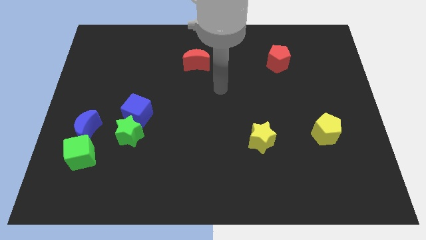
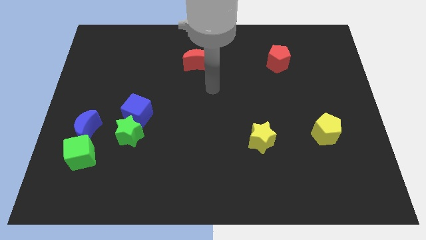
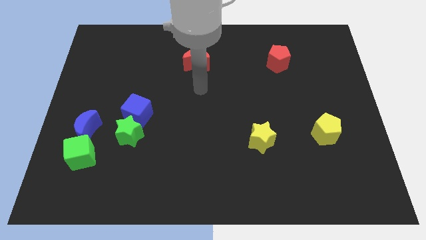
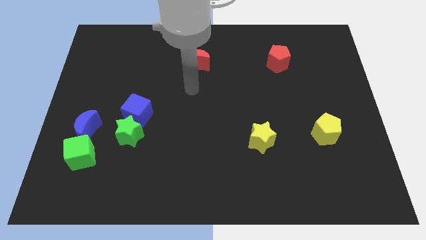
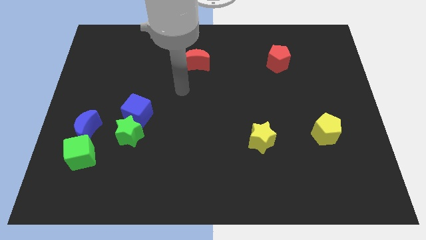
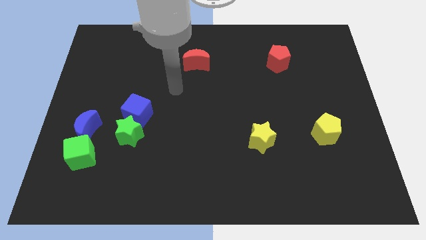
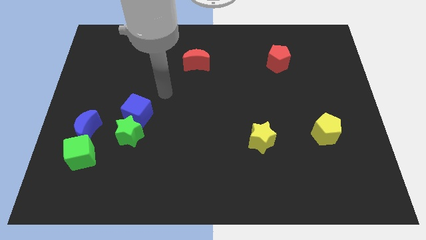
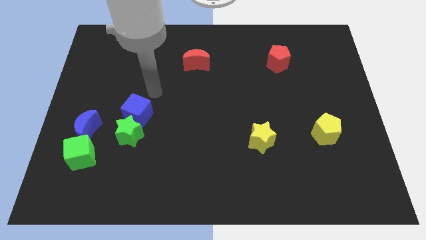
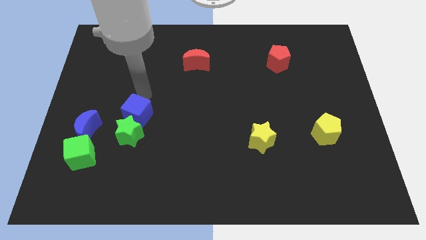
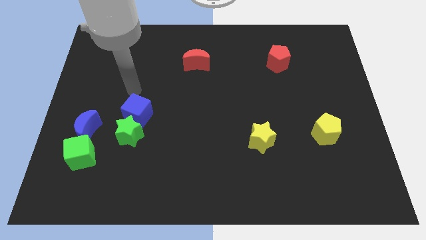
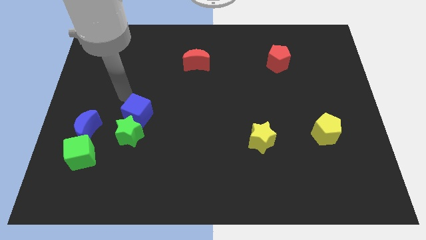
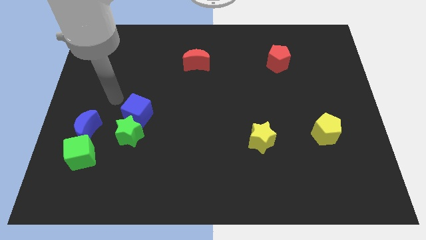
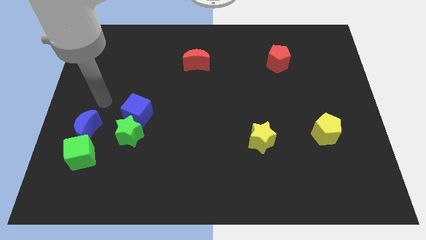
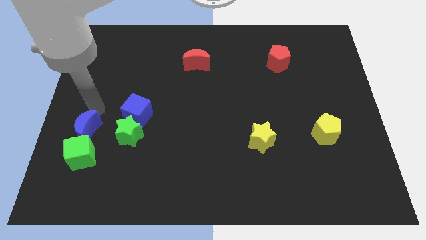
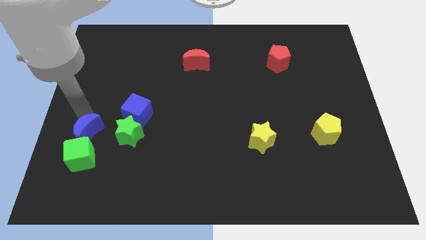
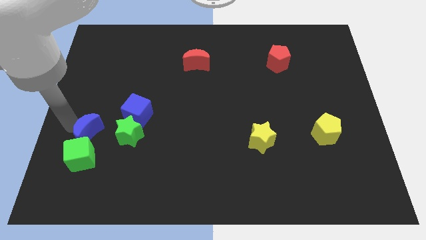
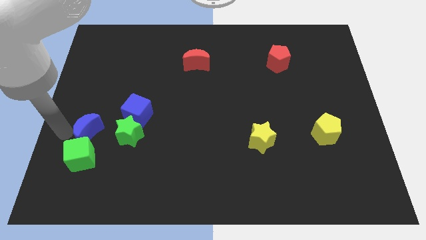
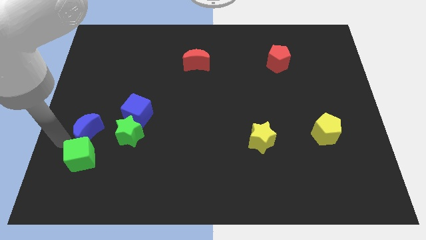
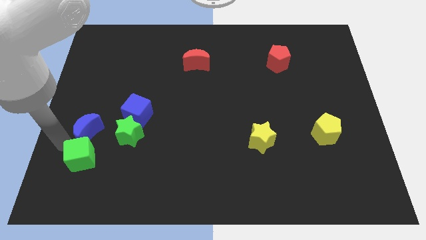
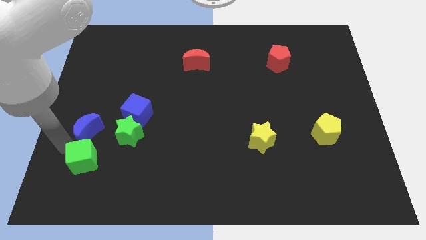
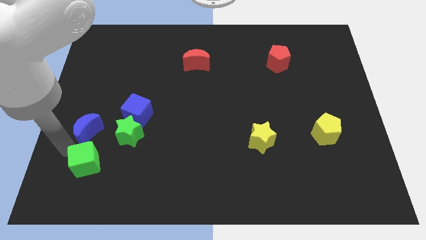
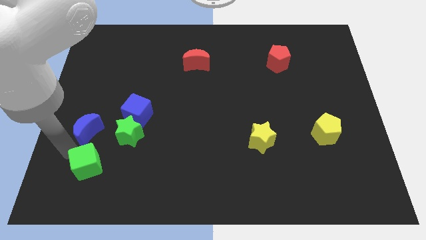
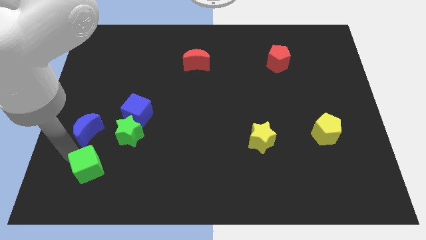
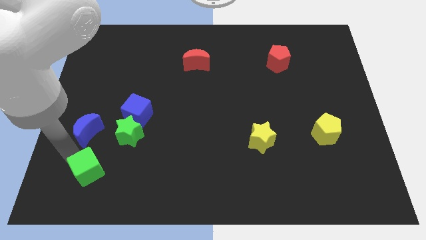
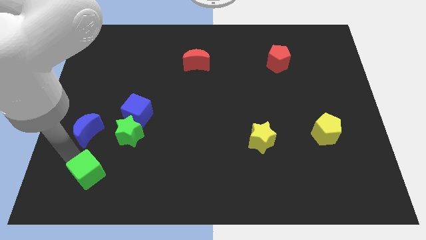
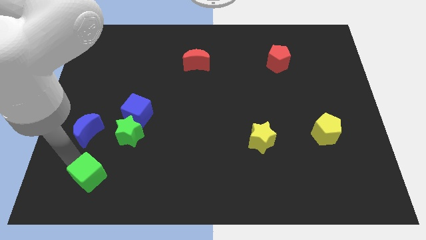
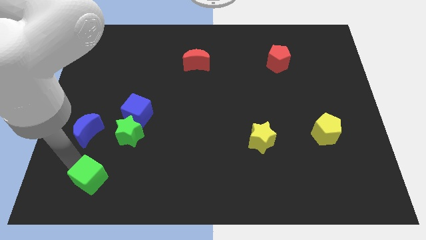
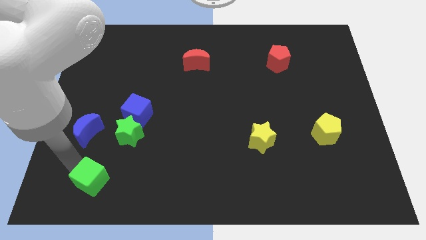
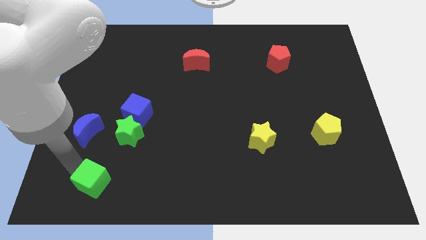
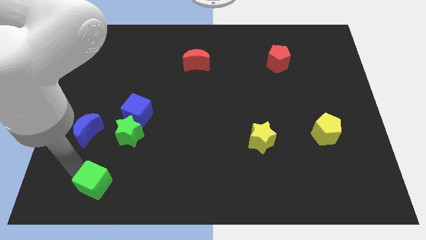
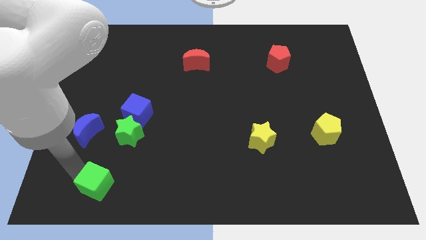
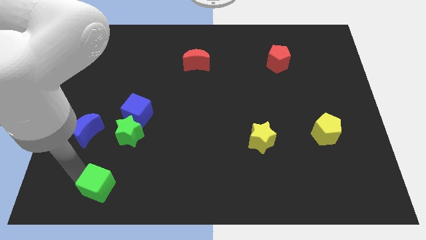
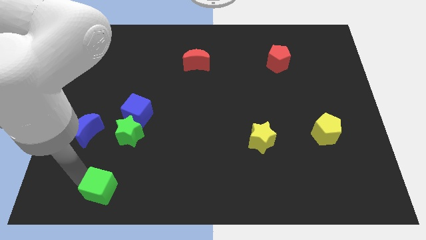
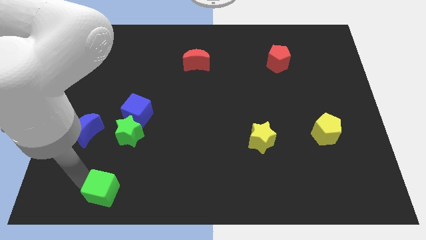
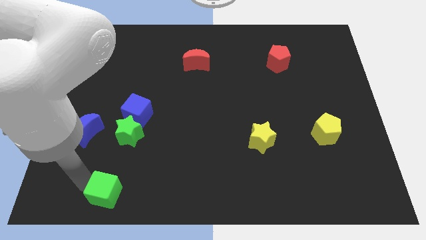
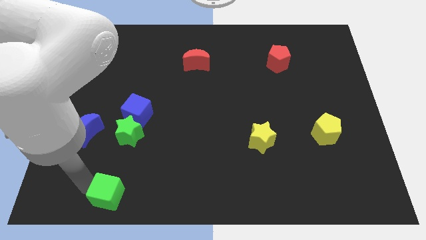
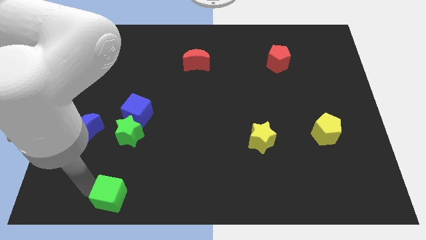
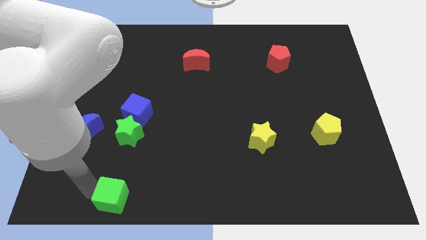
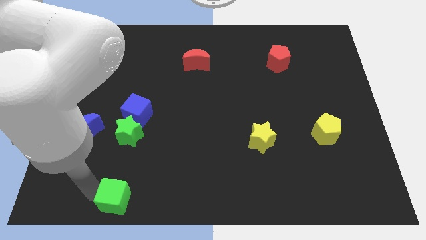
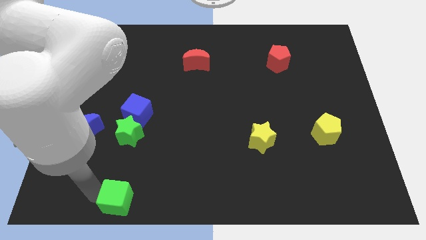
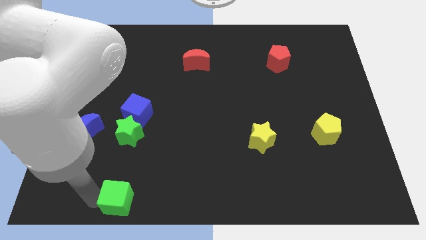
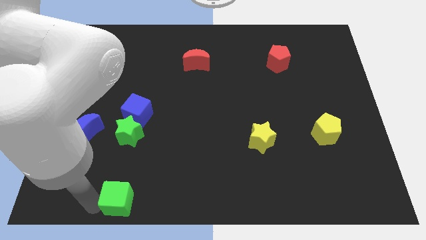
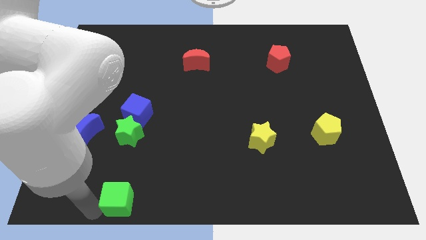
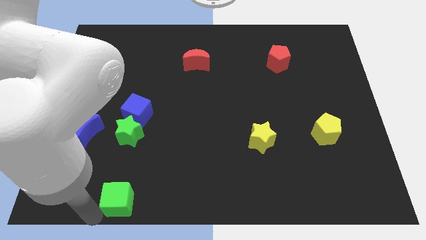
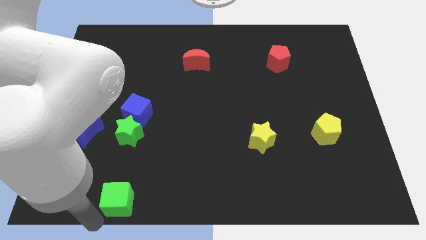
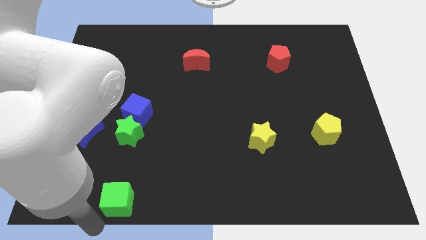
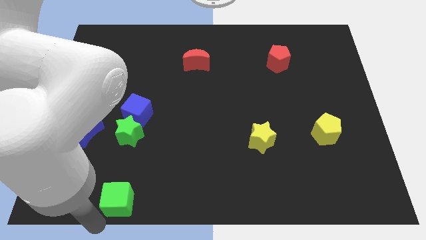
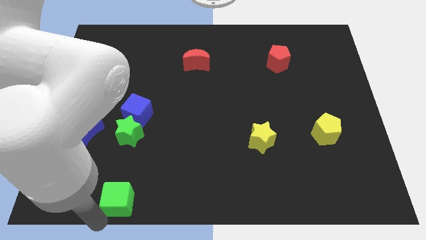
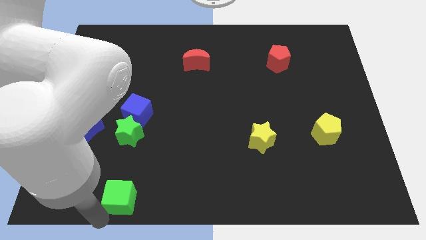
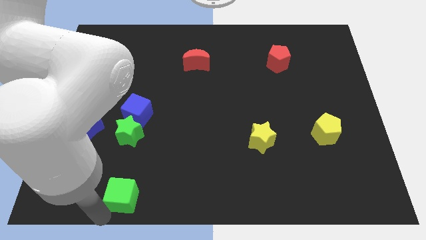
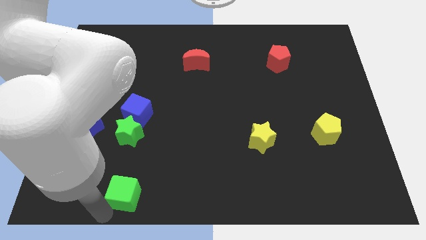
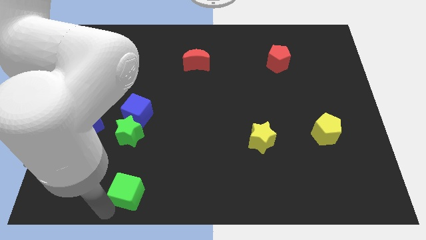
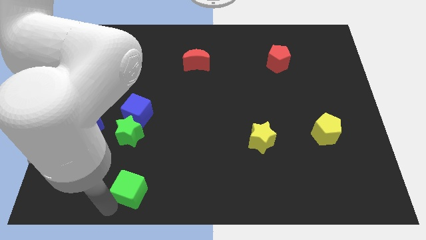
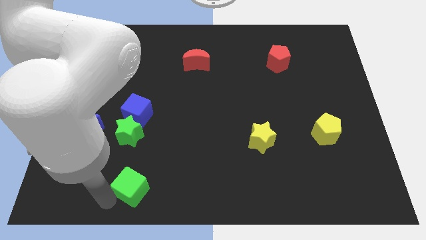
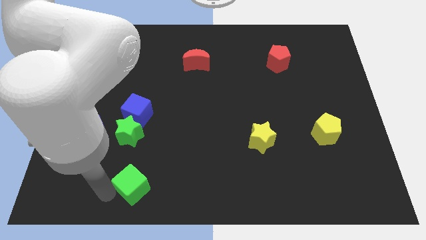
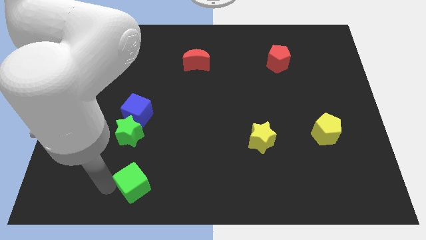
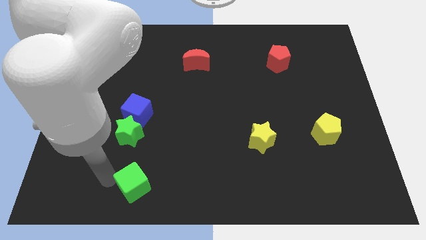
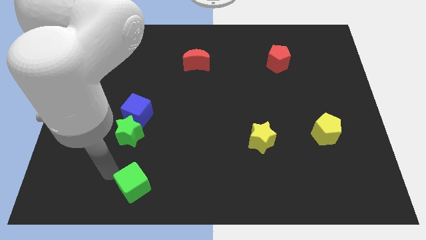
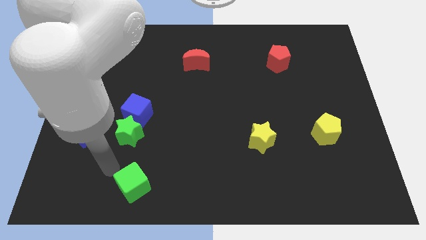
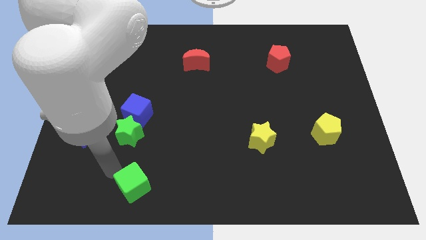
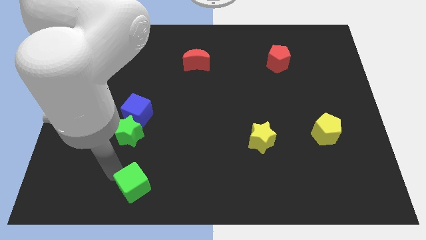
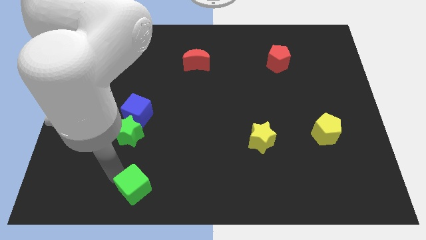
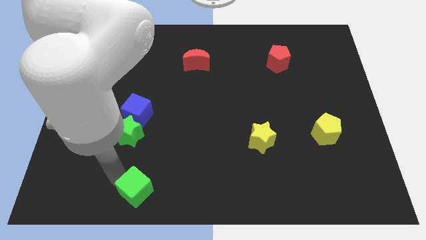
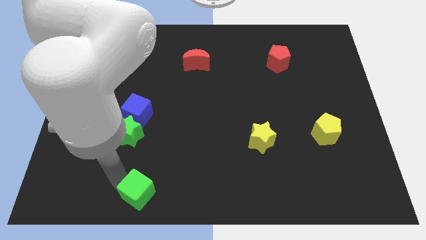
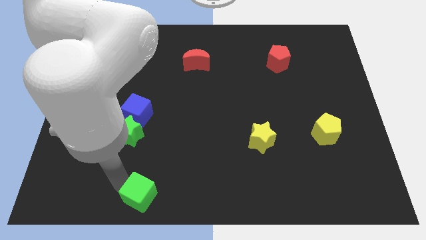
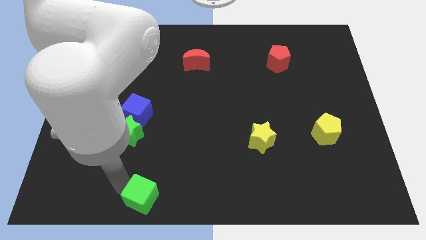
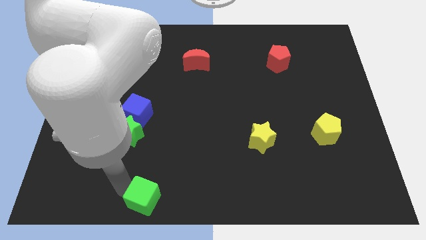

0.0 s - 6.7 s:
push the green cube to the bottom side

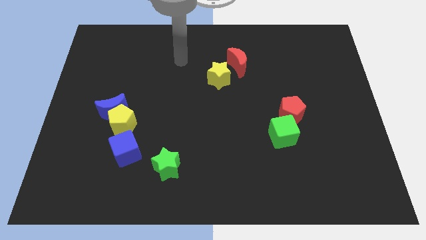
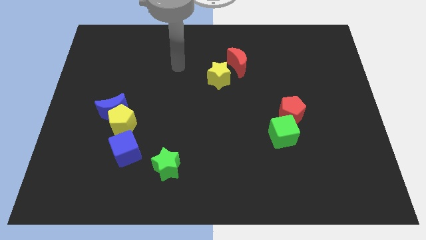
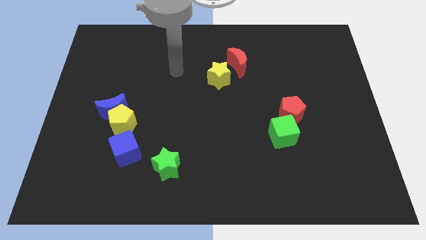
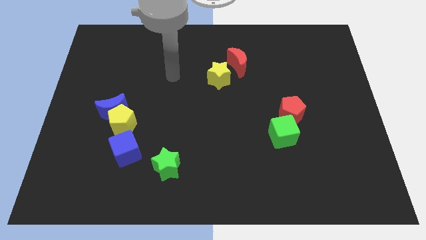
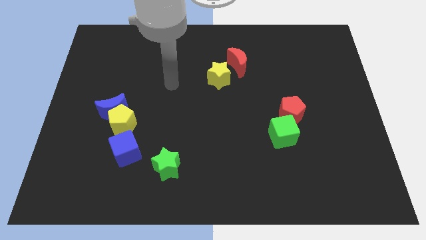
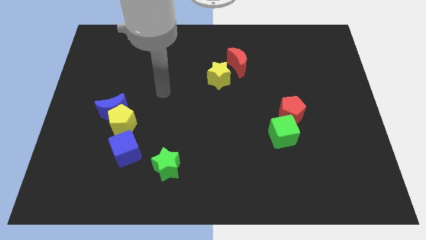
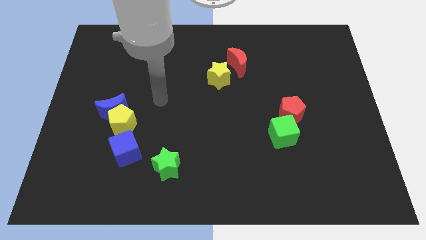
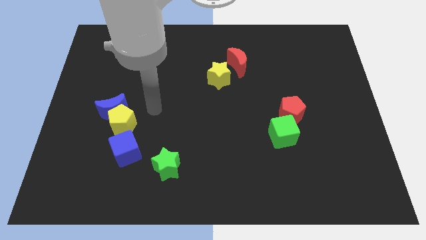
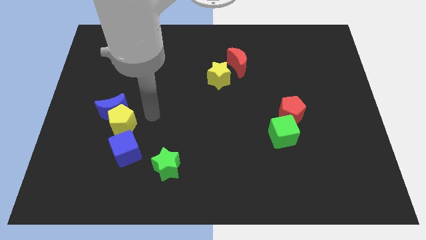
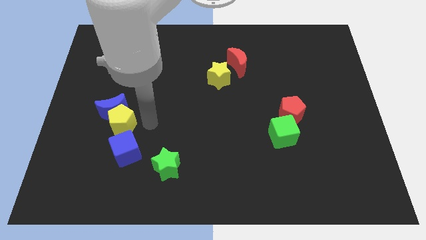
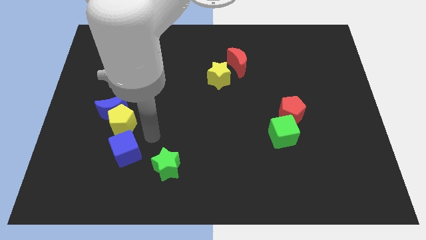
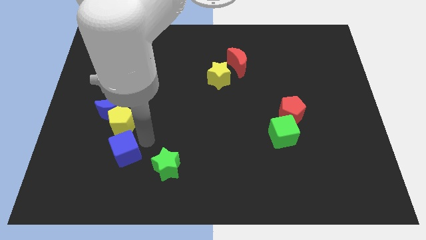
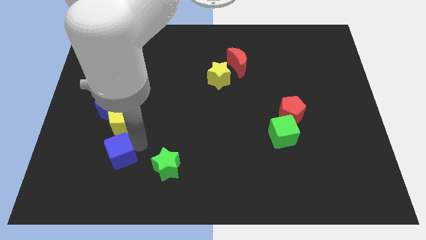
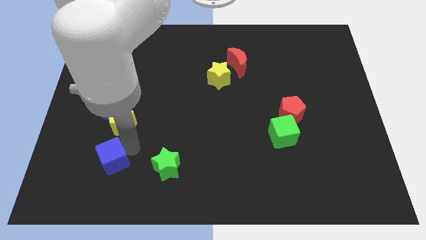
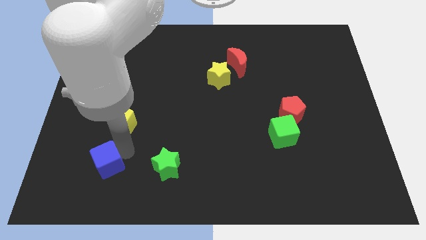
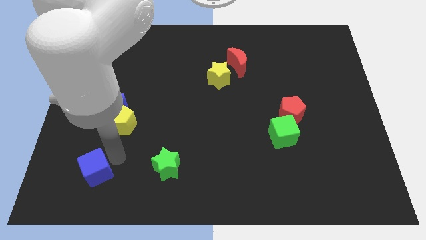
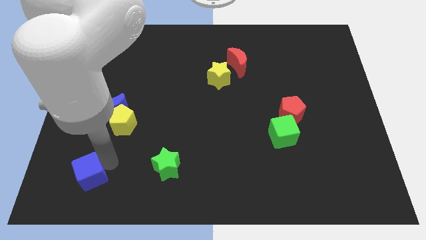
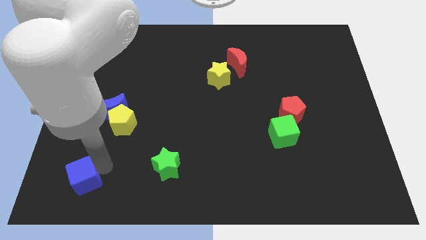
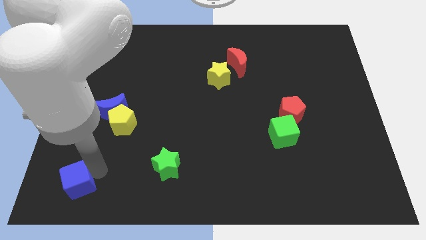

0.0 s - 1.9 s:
put the blue cube to the lower left corner
